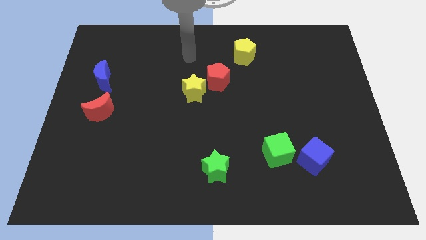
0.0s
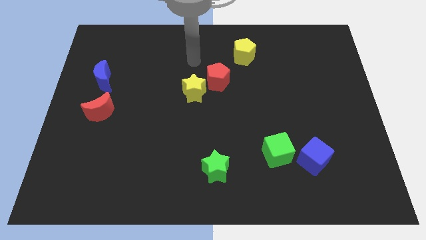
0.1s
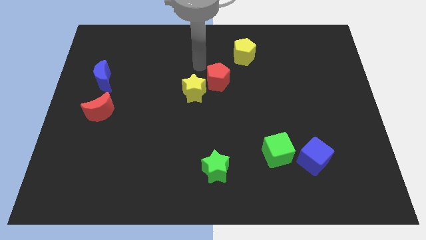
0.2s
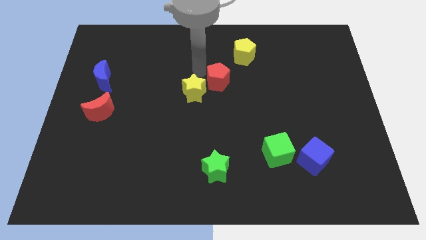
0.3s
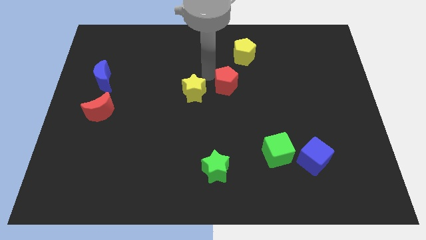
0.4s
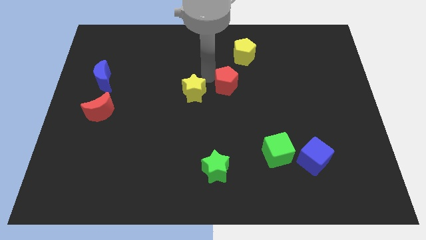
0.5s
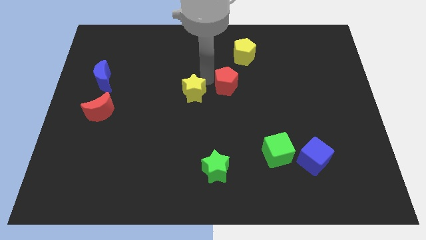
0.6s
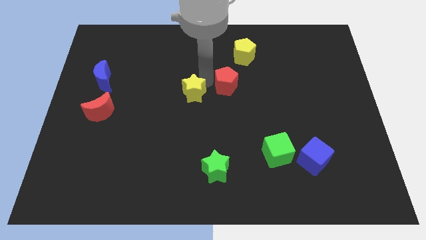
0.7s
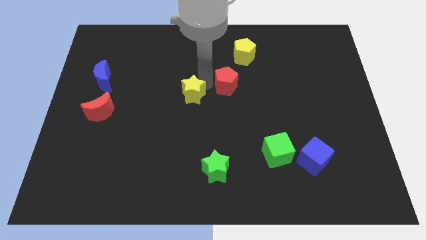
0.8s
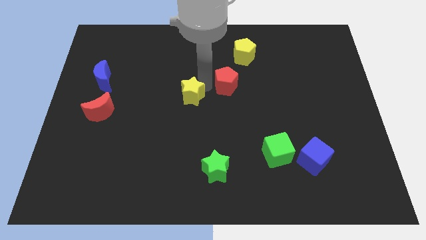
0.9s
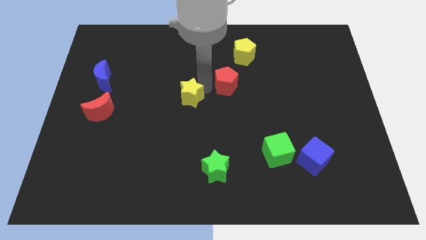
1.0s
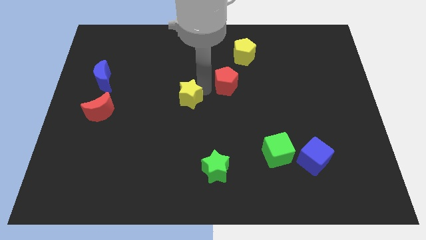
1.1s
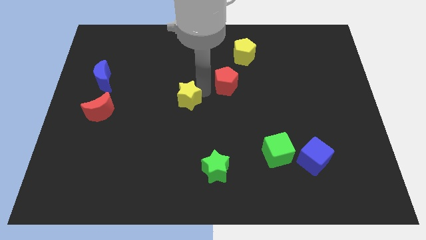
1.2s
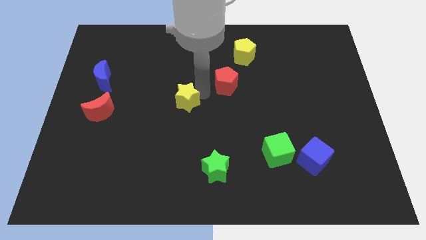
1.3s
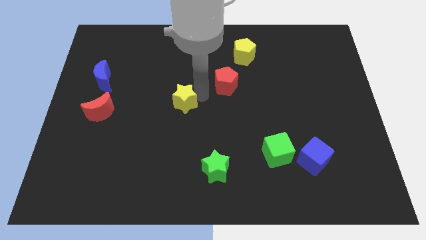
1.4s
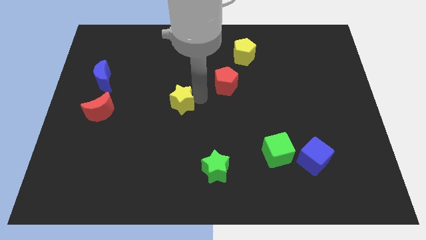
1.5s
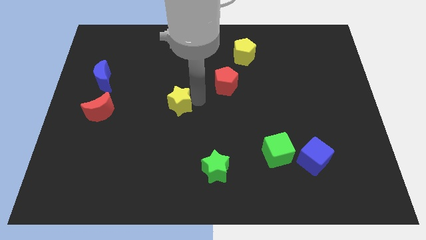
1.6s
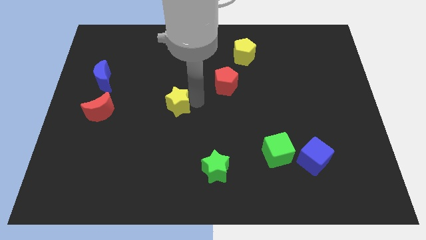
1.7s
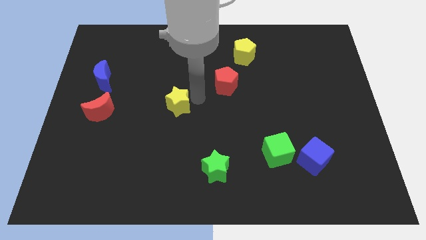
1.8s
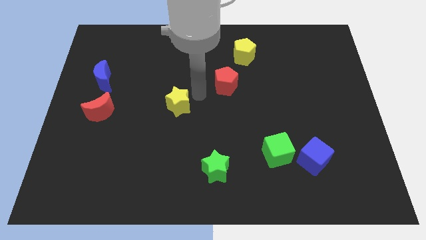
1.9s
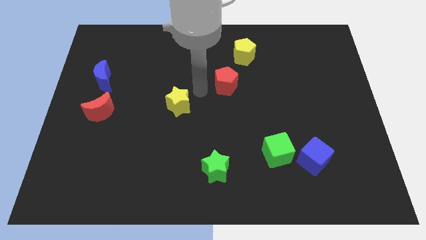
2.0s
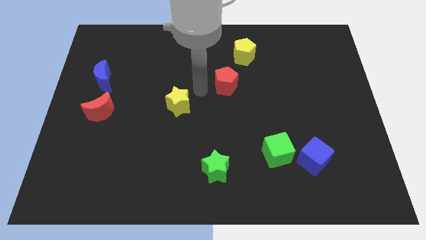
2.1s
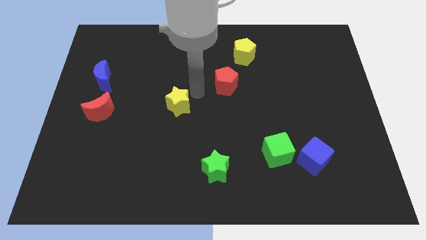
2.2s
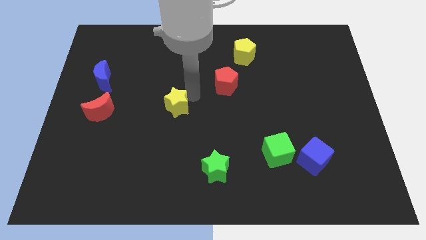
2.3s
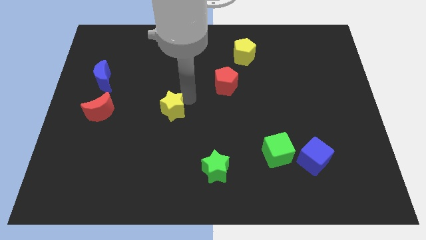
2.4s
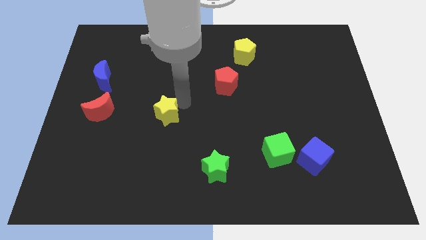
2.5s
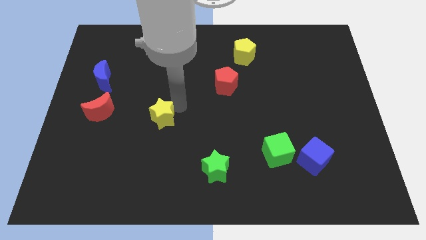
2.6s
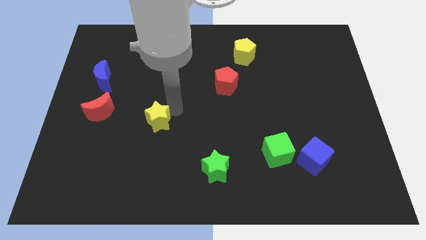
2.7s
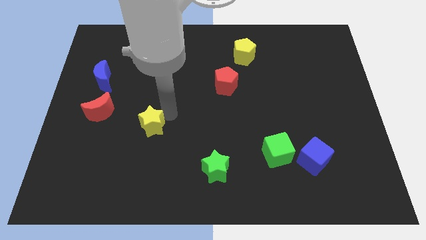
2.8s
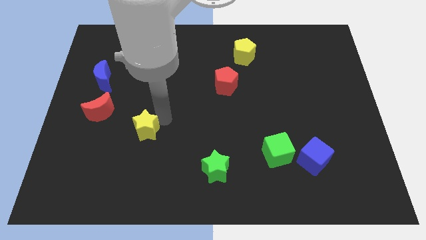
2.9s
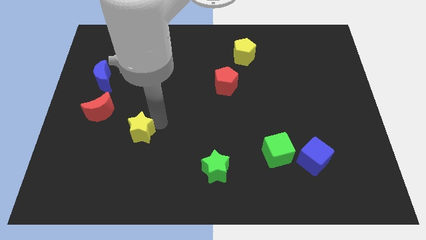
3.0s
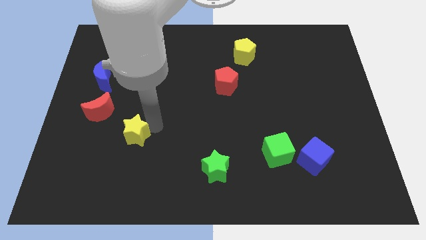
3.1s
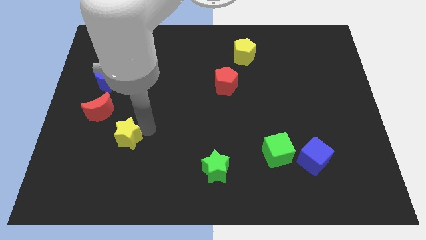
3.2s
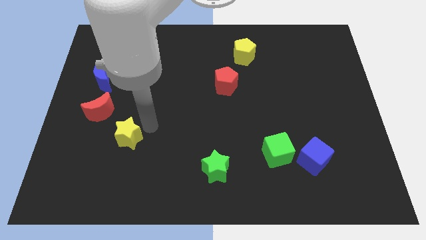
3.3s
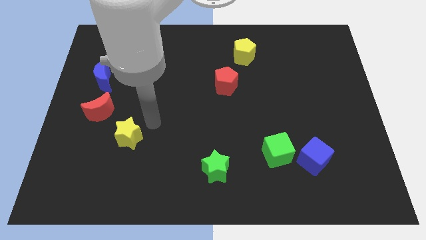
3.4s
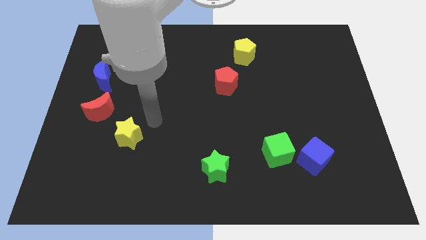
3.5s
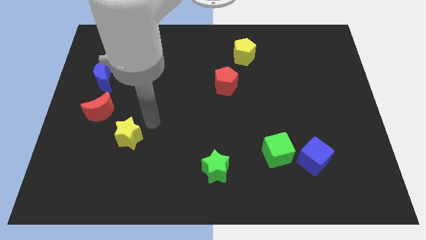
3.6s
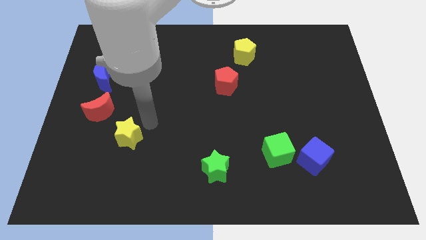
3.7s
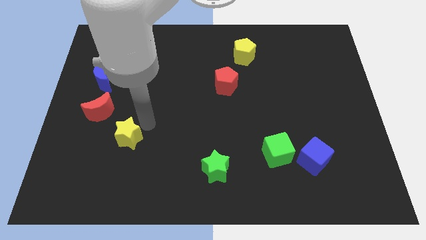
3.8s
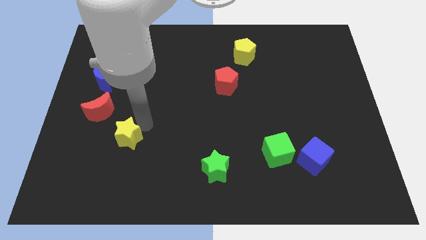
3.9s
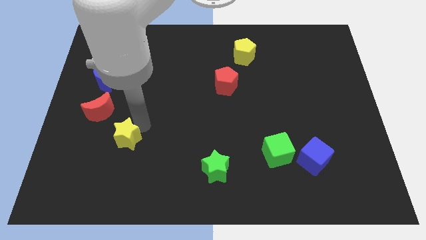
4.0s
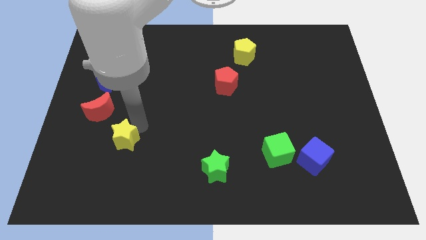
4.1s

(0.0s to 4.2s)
slide the yellow star diagonally down and to the left

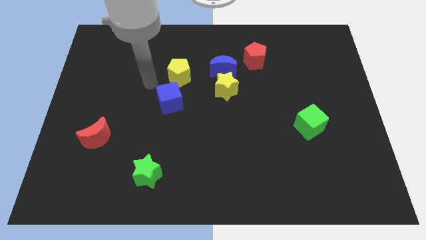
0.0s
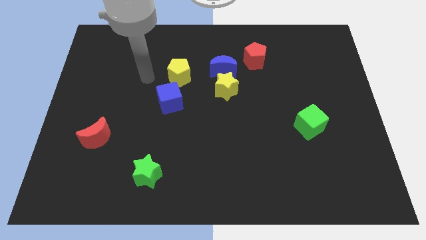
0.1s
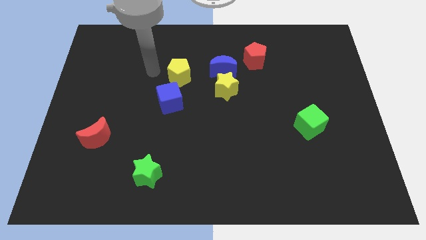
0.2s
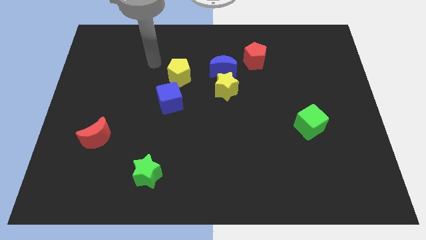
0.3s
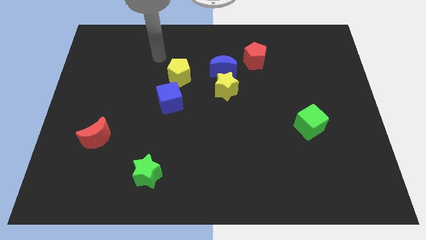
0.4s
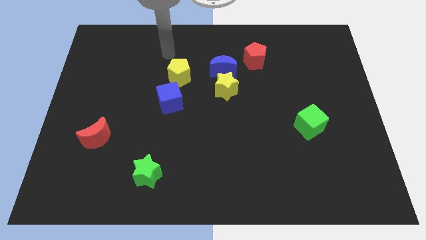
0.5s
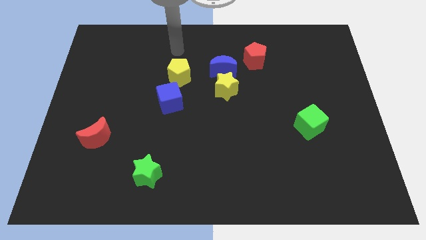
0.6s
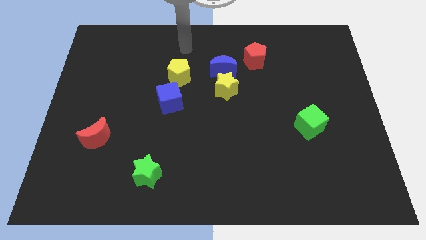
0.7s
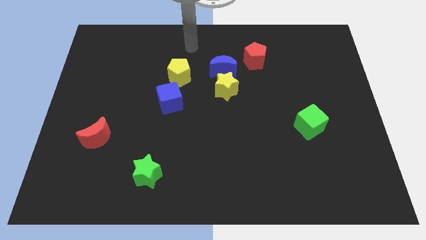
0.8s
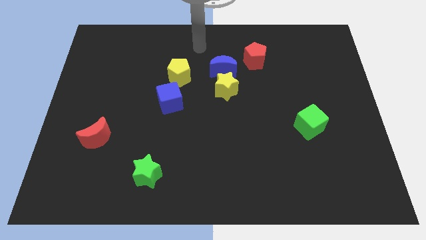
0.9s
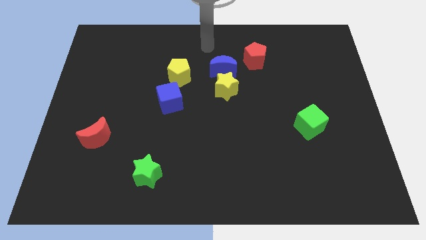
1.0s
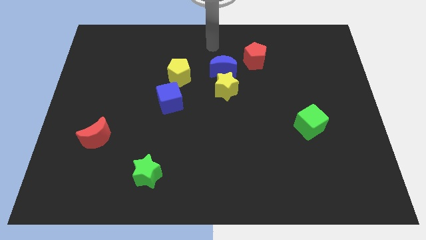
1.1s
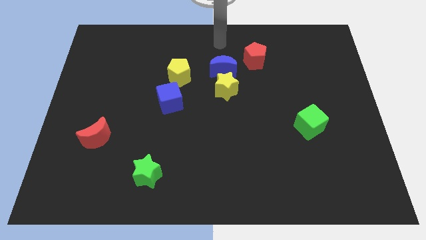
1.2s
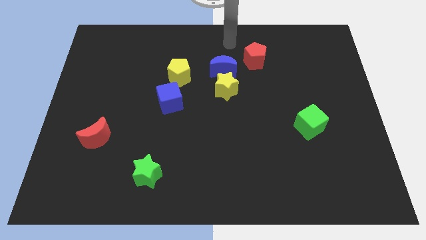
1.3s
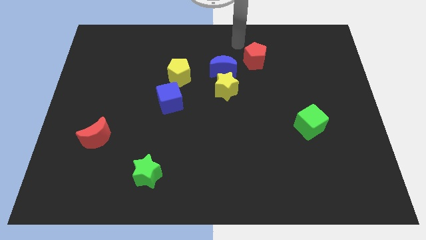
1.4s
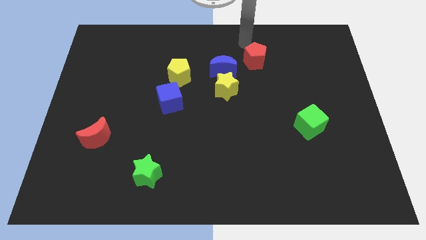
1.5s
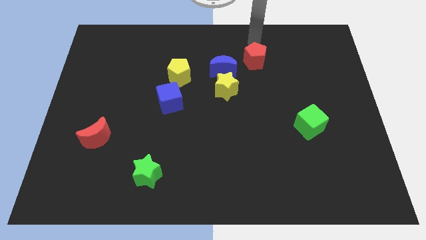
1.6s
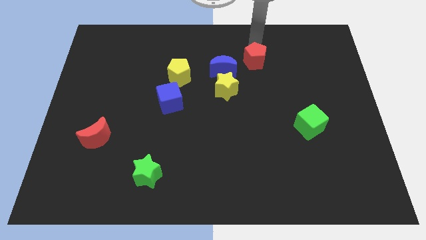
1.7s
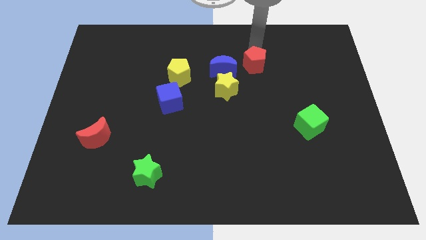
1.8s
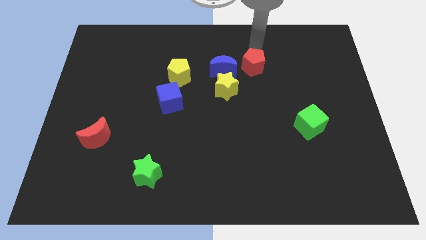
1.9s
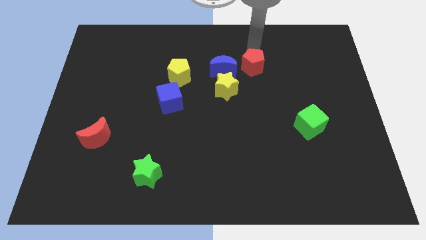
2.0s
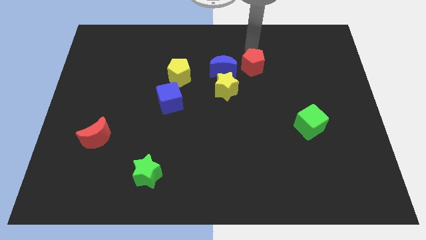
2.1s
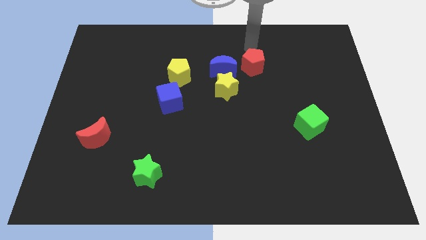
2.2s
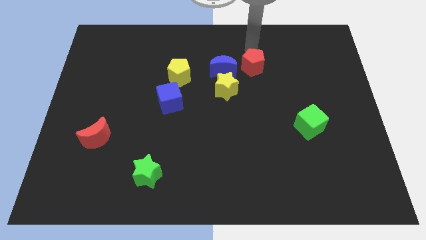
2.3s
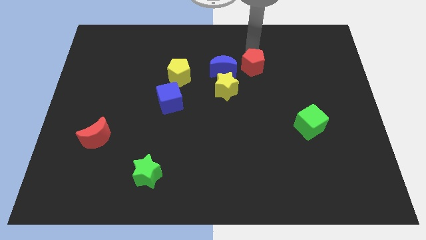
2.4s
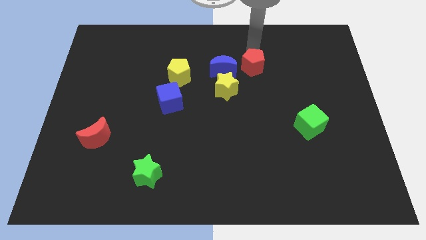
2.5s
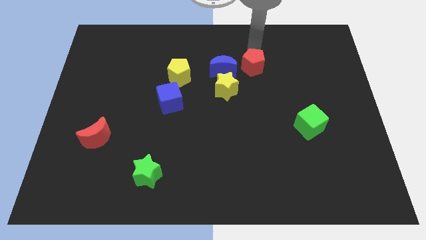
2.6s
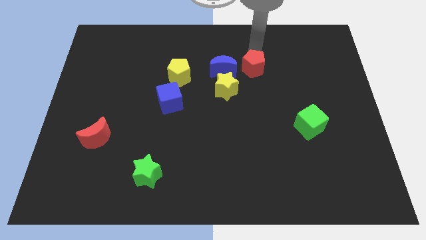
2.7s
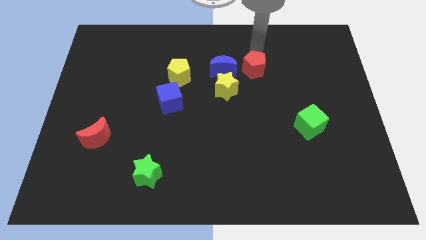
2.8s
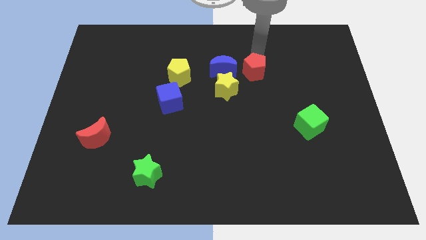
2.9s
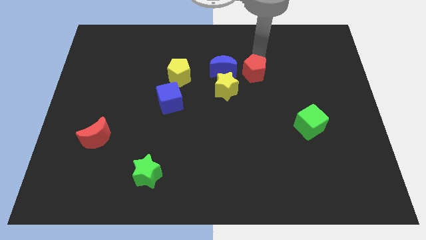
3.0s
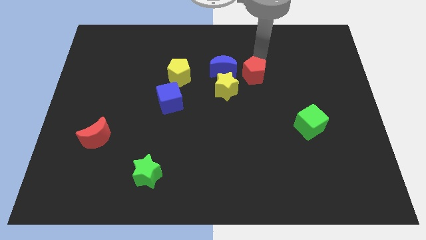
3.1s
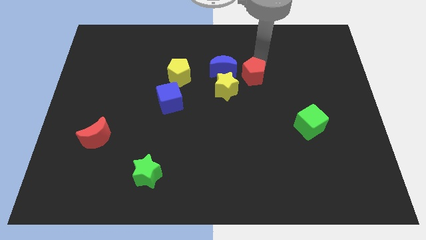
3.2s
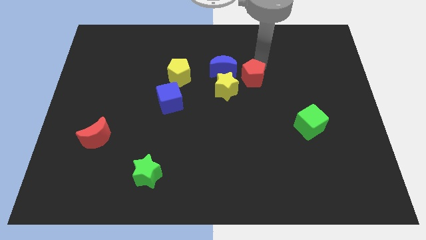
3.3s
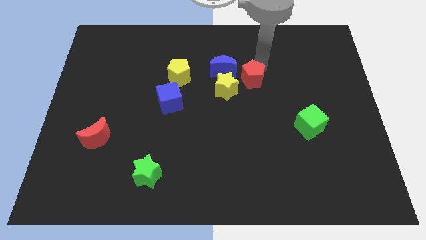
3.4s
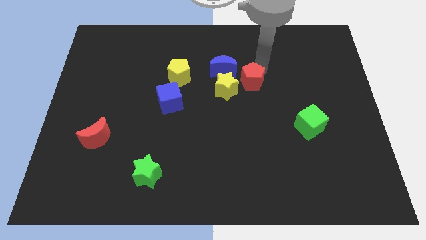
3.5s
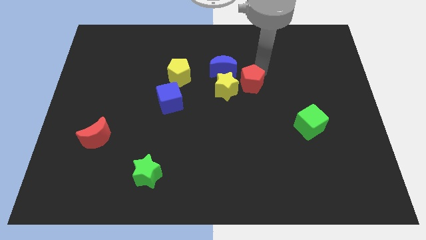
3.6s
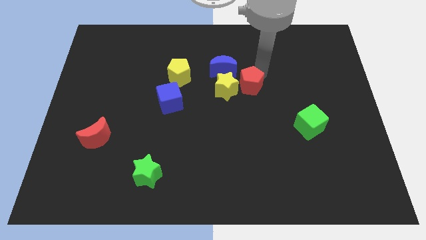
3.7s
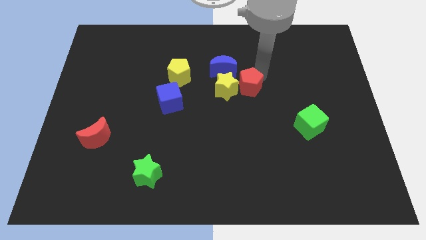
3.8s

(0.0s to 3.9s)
slightly push the red pentagon diagonally down and to the left
